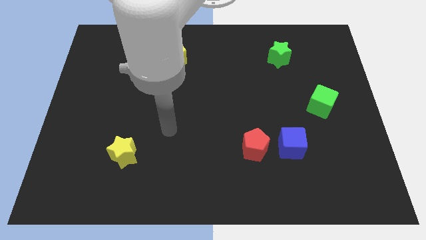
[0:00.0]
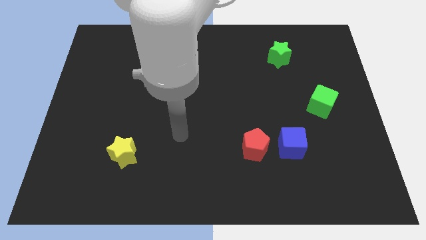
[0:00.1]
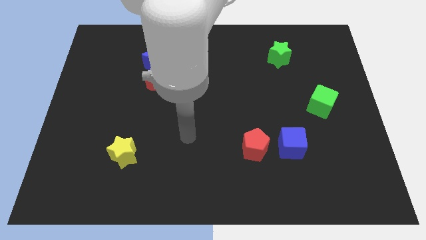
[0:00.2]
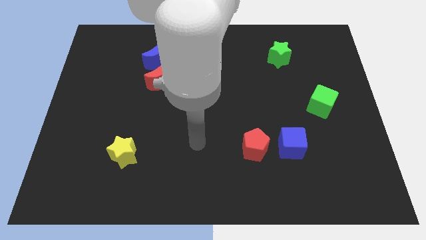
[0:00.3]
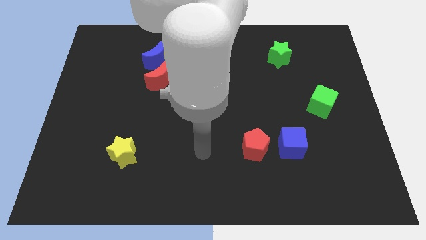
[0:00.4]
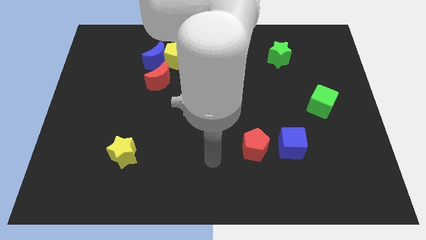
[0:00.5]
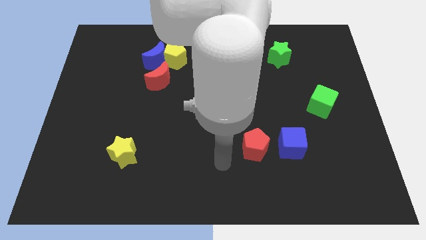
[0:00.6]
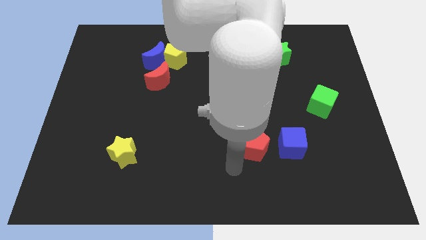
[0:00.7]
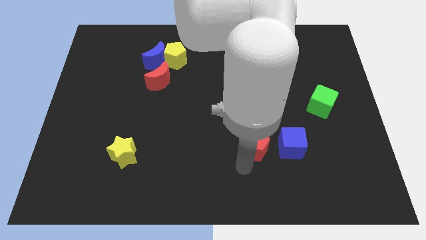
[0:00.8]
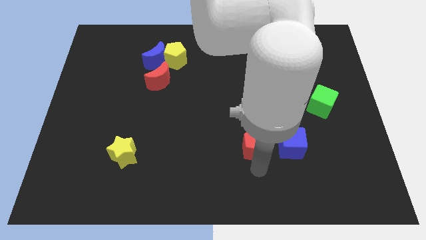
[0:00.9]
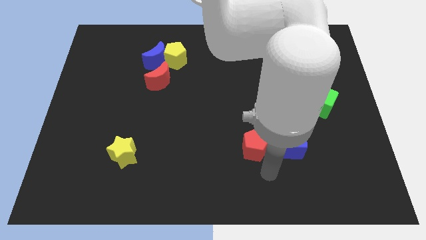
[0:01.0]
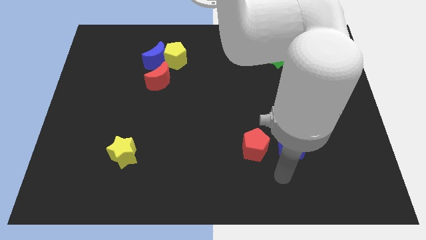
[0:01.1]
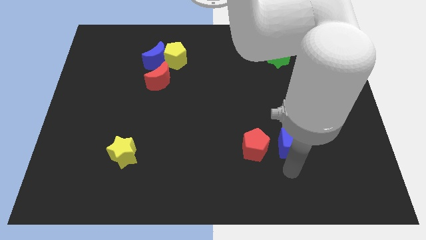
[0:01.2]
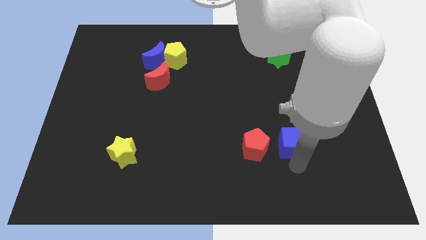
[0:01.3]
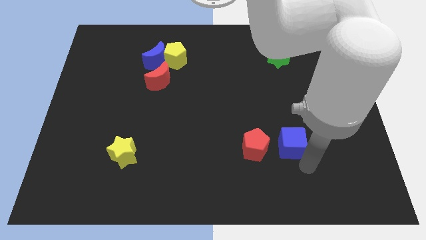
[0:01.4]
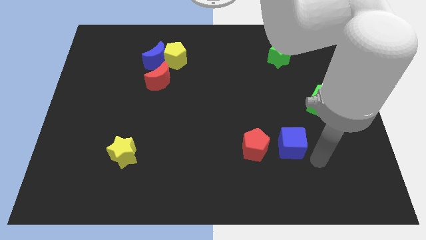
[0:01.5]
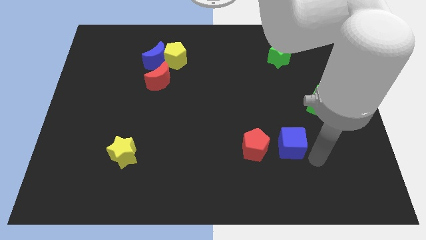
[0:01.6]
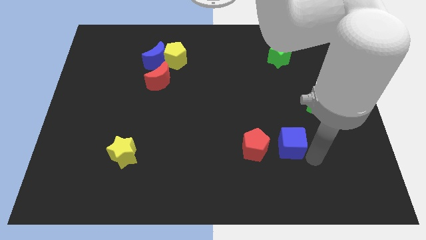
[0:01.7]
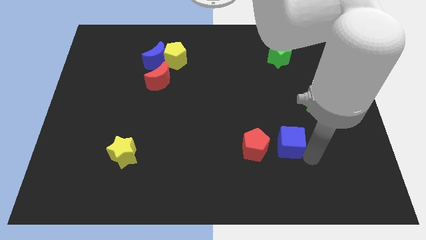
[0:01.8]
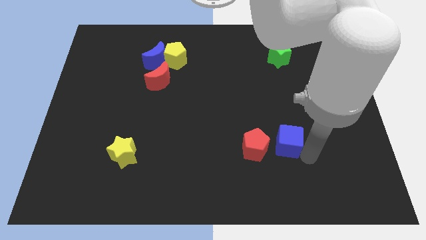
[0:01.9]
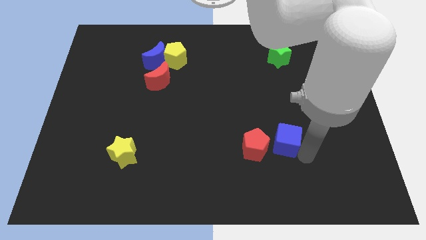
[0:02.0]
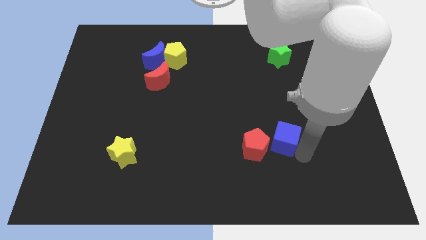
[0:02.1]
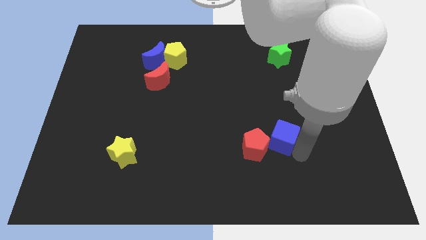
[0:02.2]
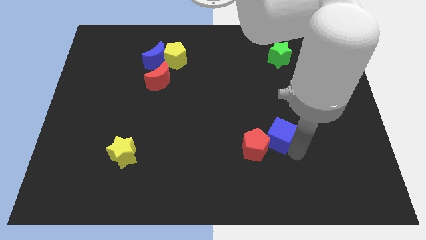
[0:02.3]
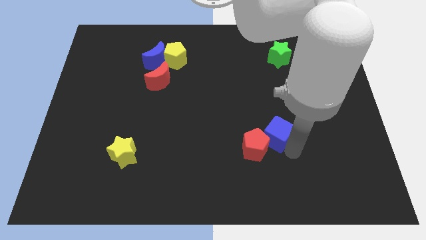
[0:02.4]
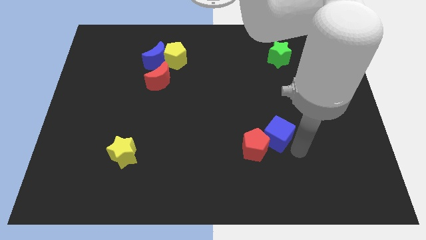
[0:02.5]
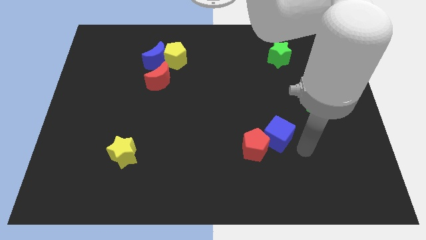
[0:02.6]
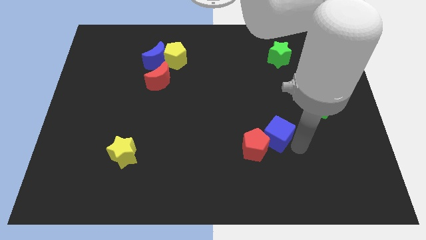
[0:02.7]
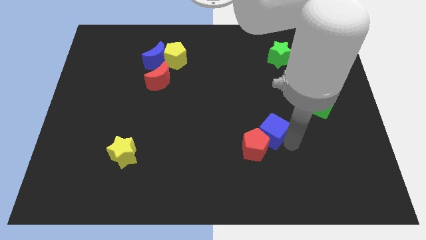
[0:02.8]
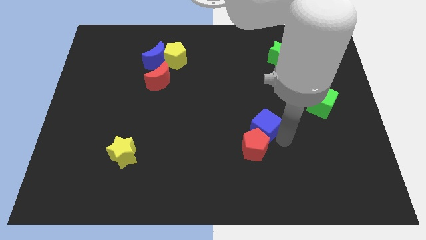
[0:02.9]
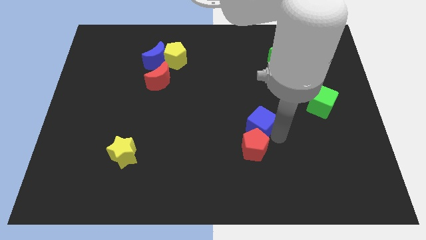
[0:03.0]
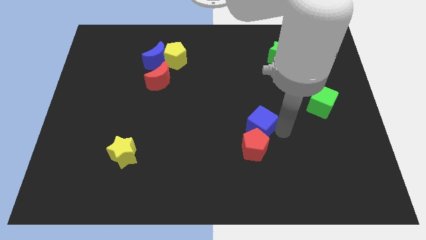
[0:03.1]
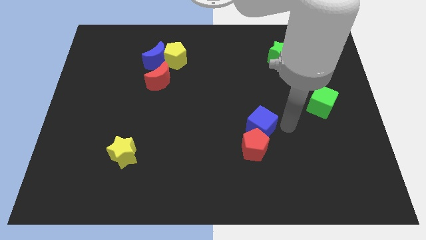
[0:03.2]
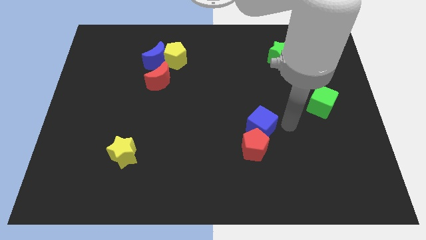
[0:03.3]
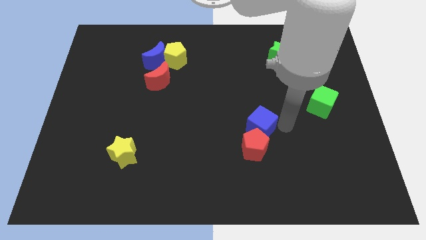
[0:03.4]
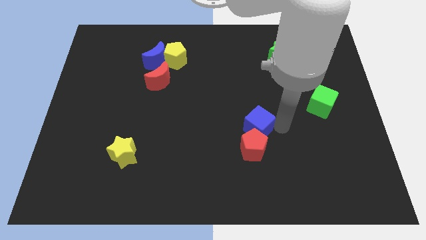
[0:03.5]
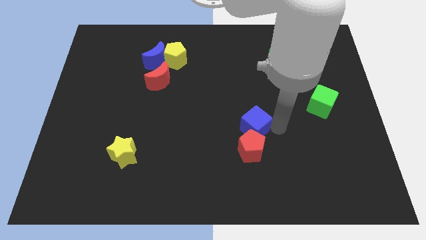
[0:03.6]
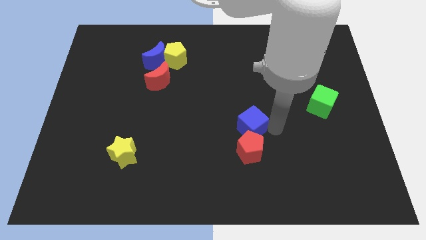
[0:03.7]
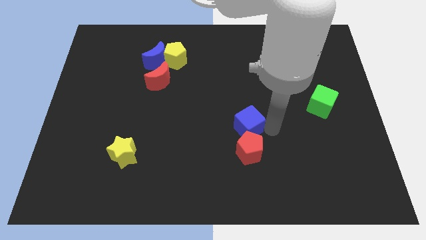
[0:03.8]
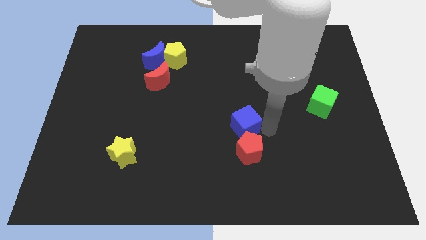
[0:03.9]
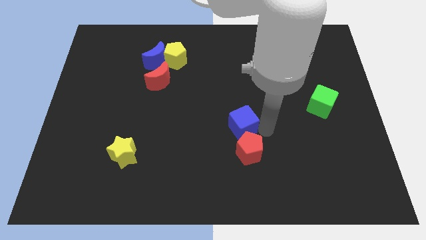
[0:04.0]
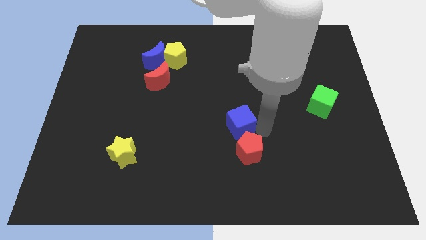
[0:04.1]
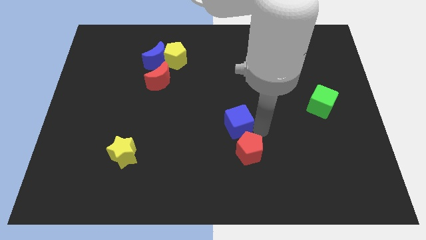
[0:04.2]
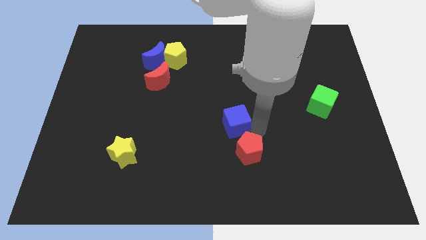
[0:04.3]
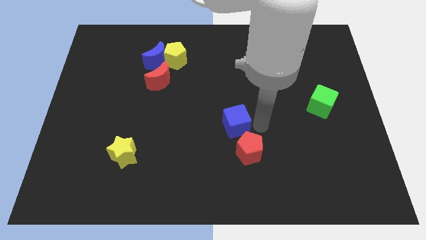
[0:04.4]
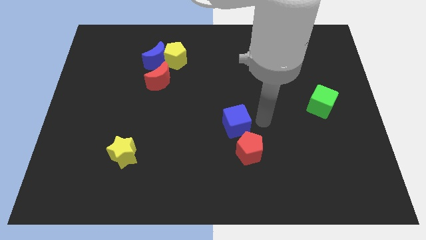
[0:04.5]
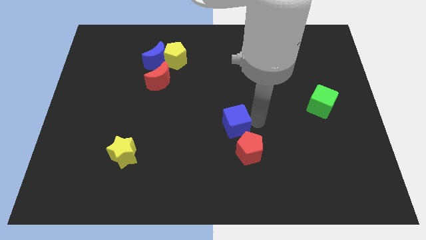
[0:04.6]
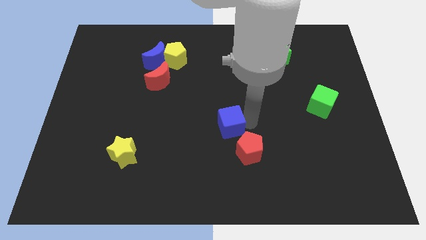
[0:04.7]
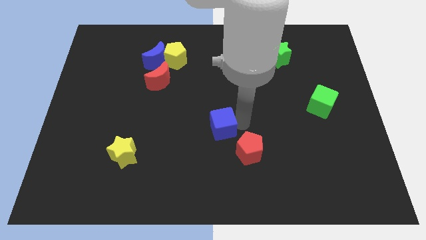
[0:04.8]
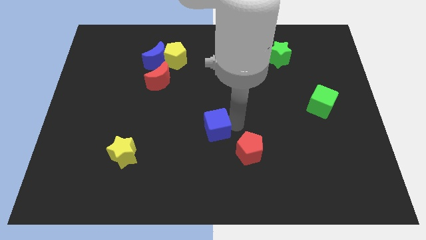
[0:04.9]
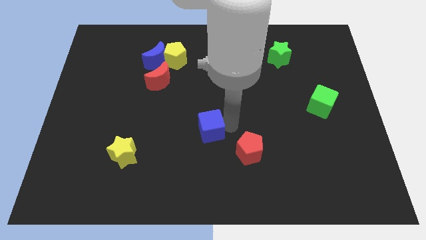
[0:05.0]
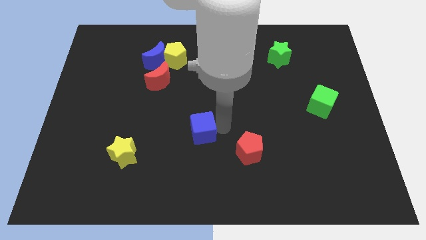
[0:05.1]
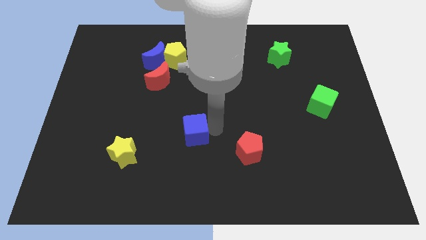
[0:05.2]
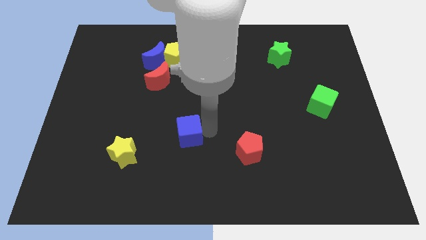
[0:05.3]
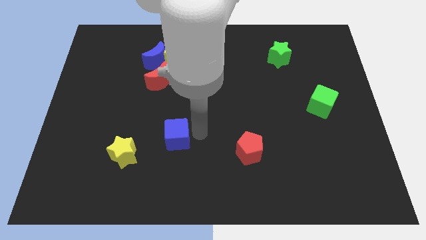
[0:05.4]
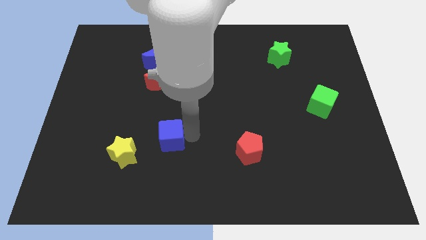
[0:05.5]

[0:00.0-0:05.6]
put the blue cube to the top right side of the yellow star

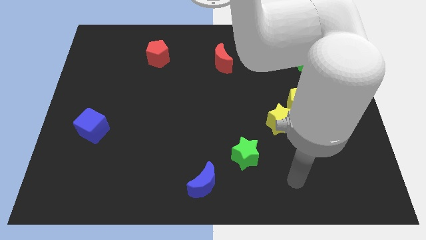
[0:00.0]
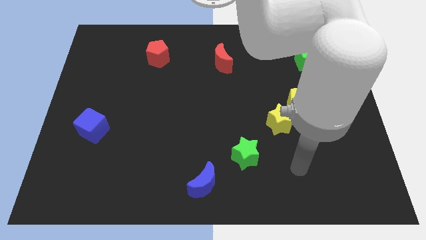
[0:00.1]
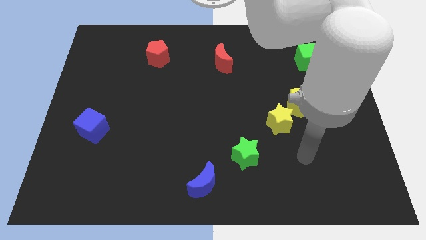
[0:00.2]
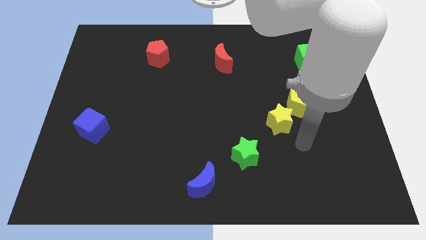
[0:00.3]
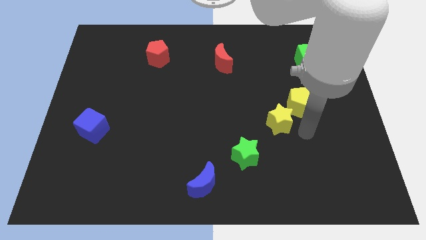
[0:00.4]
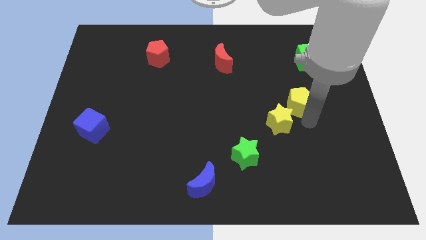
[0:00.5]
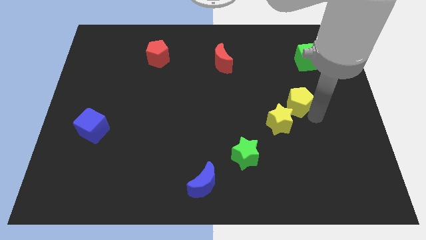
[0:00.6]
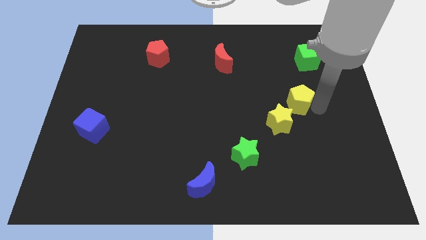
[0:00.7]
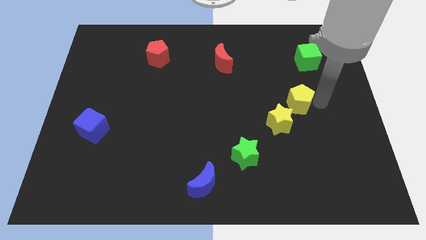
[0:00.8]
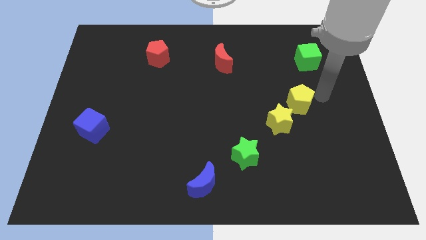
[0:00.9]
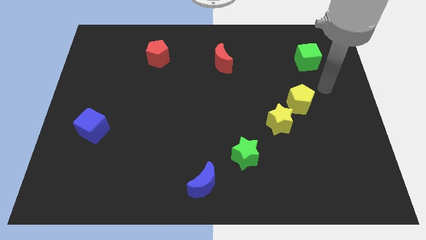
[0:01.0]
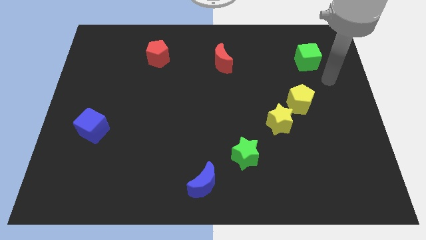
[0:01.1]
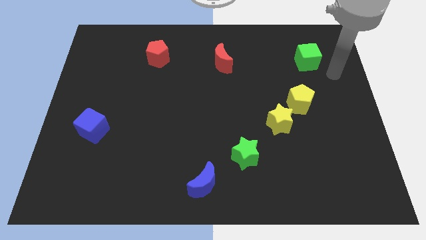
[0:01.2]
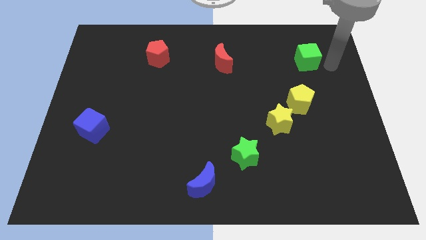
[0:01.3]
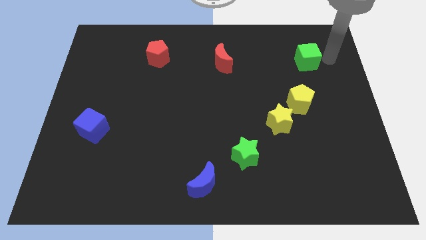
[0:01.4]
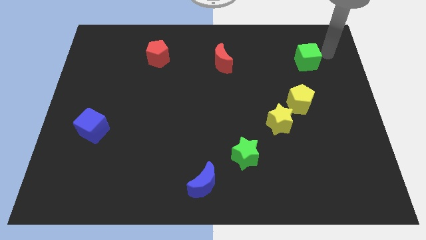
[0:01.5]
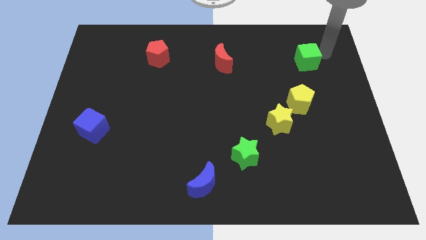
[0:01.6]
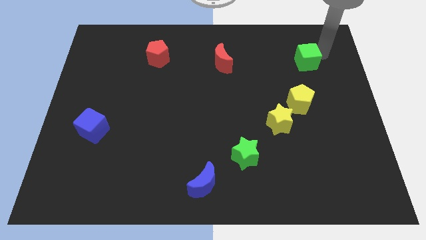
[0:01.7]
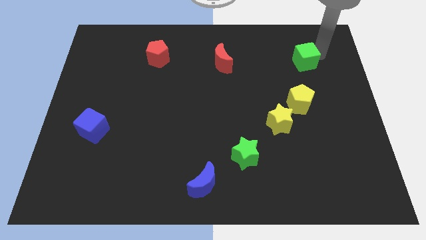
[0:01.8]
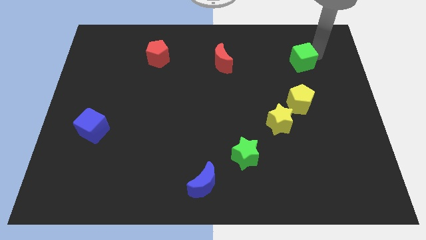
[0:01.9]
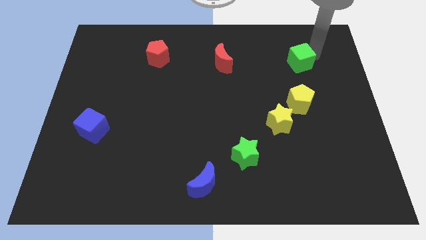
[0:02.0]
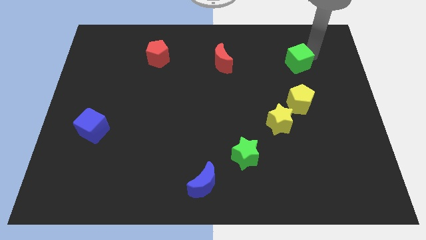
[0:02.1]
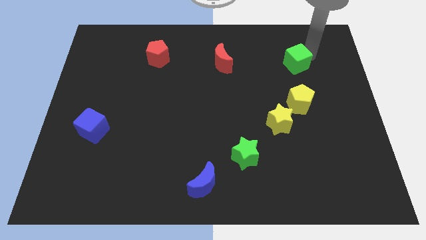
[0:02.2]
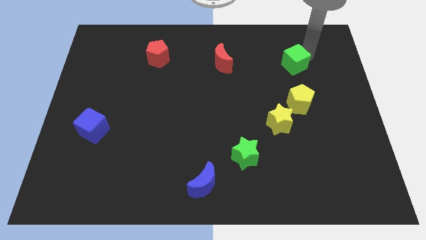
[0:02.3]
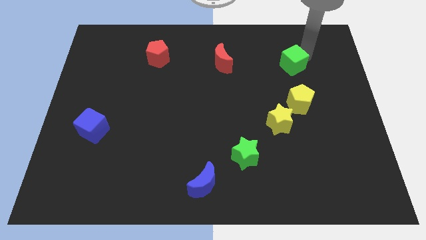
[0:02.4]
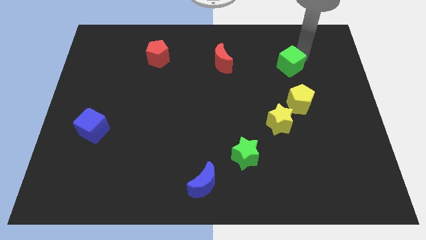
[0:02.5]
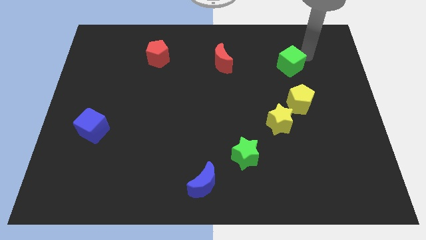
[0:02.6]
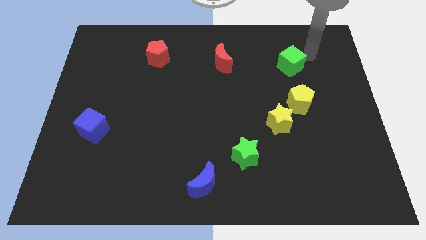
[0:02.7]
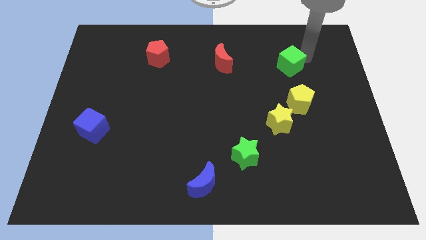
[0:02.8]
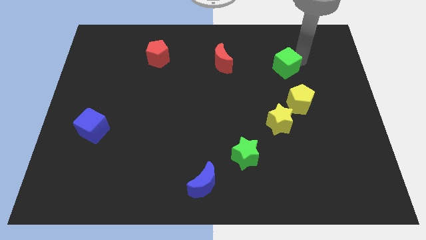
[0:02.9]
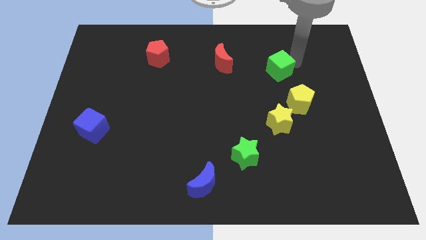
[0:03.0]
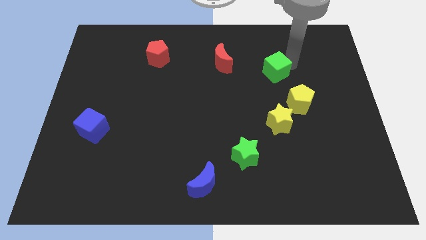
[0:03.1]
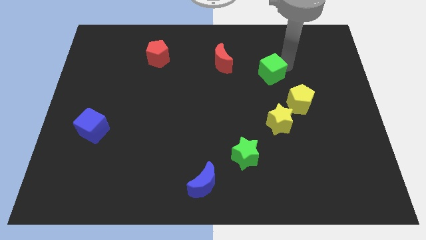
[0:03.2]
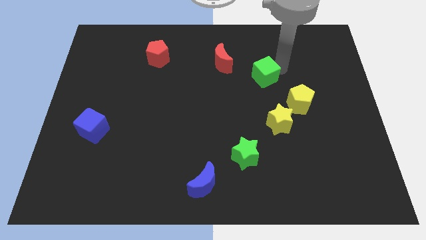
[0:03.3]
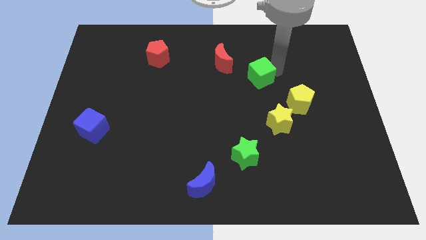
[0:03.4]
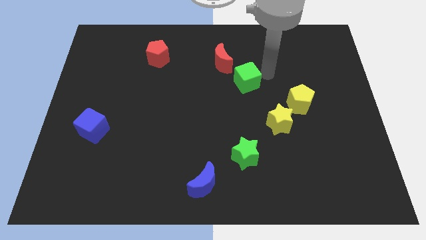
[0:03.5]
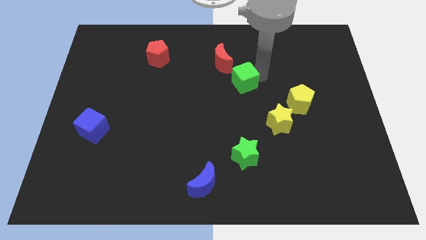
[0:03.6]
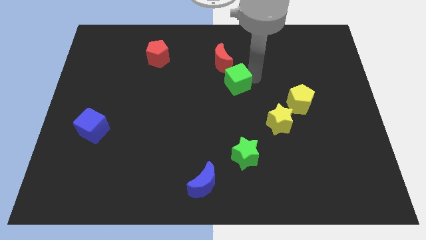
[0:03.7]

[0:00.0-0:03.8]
slide the green cube to the bottom side of the red moon
